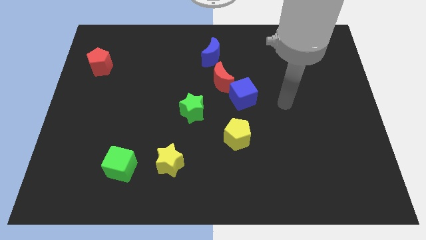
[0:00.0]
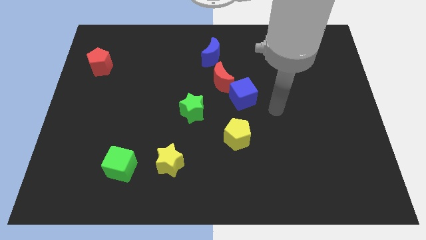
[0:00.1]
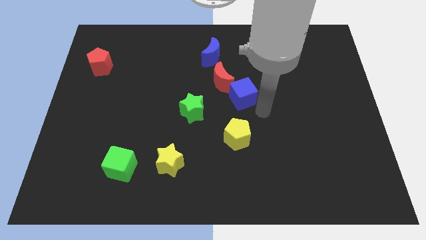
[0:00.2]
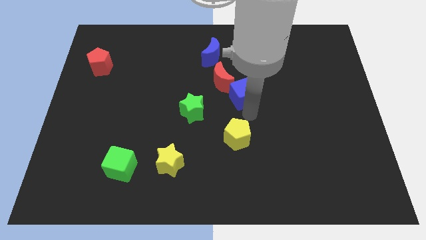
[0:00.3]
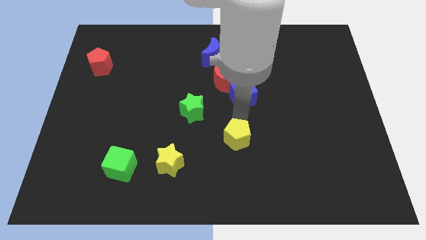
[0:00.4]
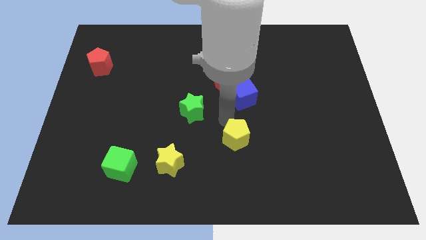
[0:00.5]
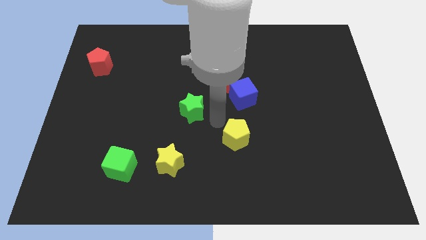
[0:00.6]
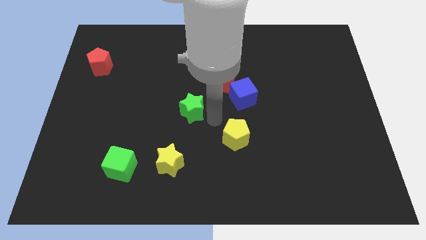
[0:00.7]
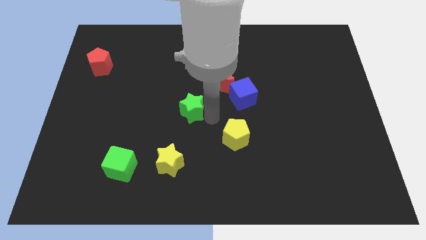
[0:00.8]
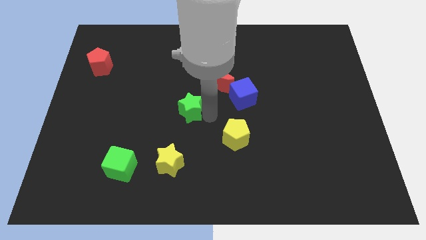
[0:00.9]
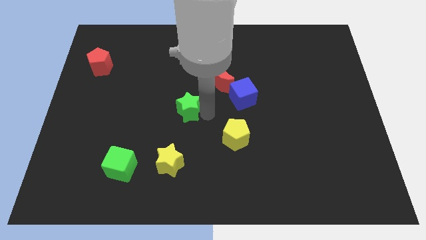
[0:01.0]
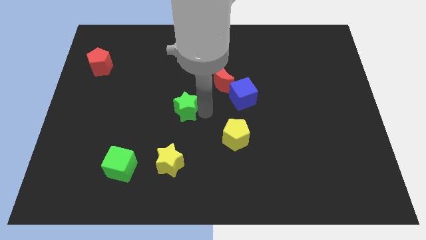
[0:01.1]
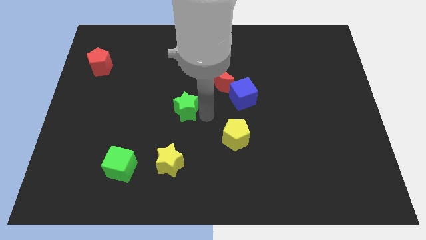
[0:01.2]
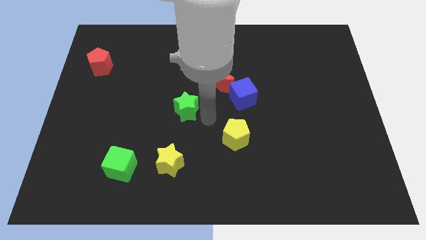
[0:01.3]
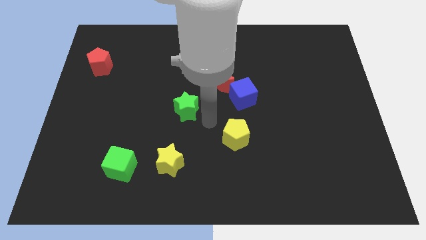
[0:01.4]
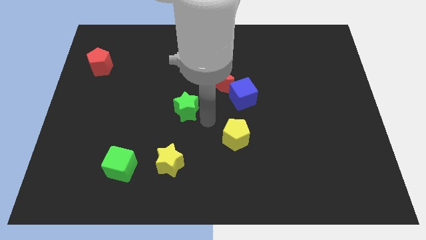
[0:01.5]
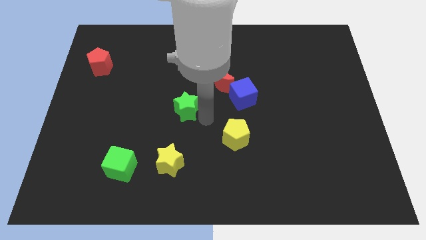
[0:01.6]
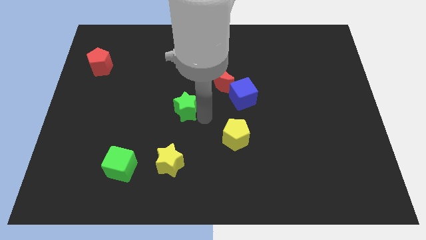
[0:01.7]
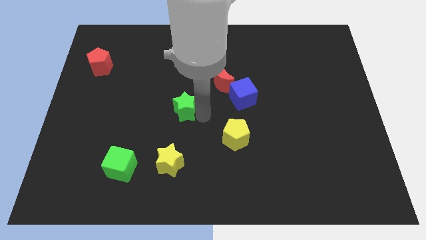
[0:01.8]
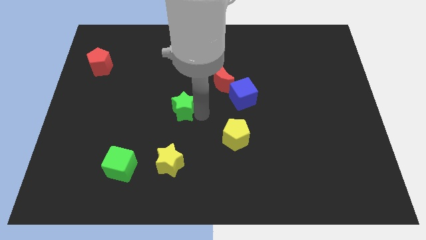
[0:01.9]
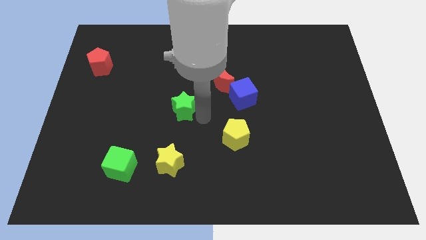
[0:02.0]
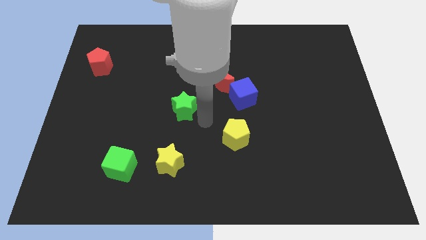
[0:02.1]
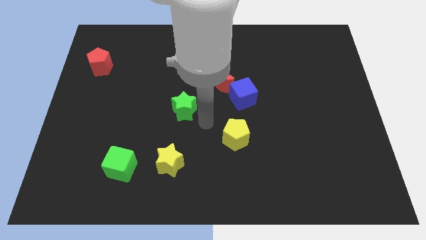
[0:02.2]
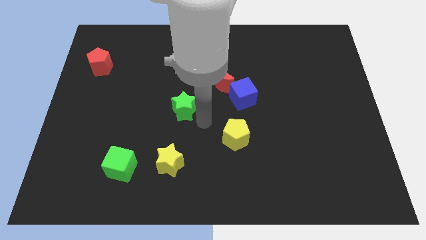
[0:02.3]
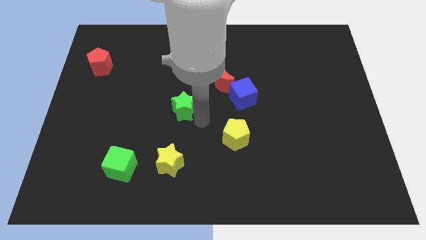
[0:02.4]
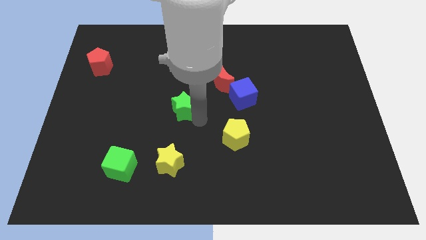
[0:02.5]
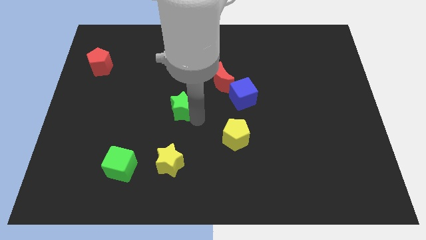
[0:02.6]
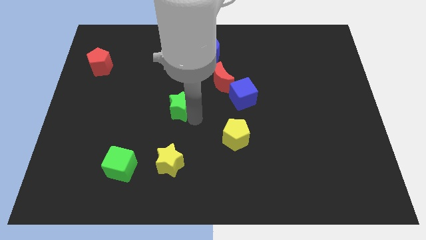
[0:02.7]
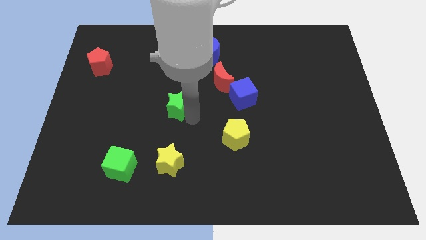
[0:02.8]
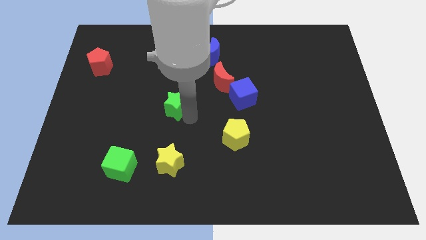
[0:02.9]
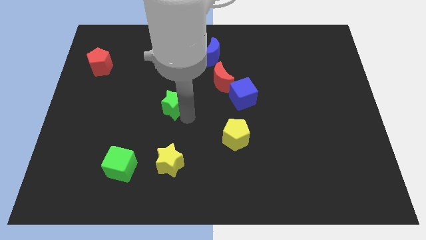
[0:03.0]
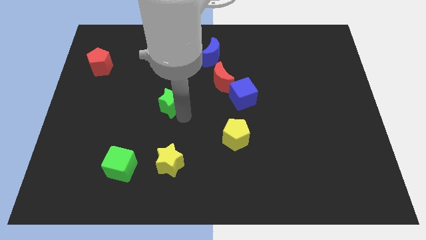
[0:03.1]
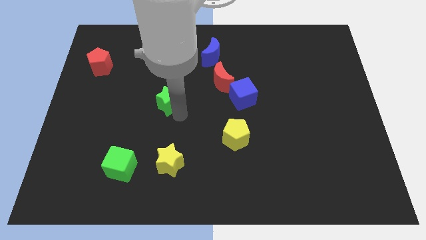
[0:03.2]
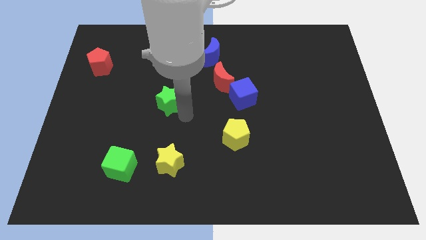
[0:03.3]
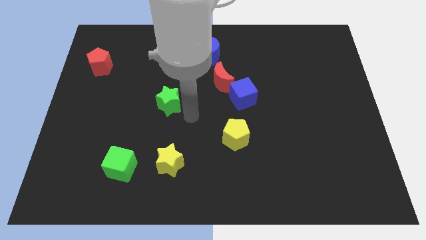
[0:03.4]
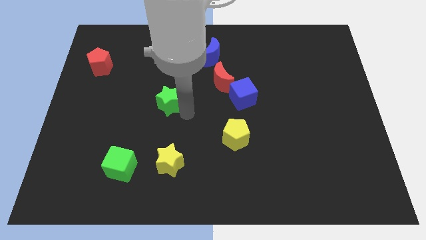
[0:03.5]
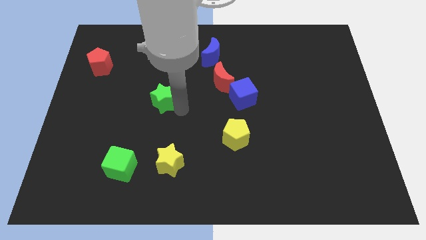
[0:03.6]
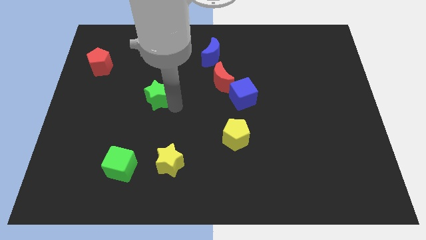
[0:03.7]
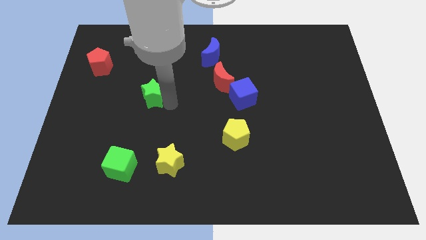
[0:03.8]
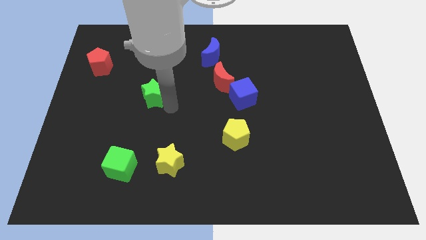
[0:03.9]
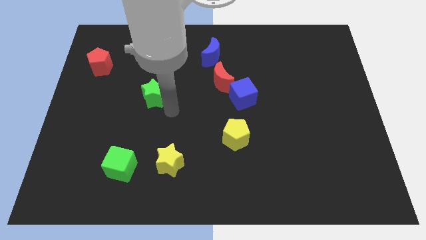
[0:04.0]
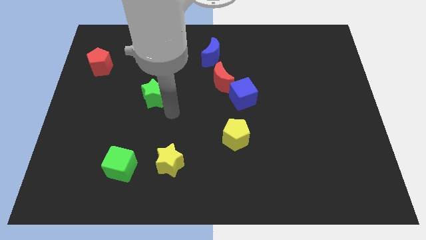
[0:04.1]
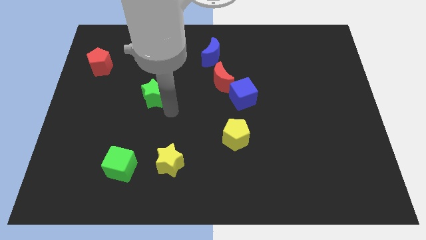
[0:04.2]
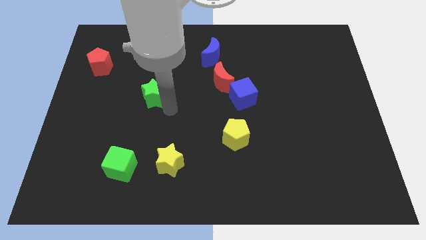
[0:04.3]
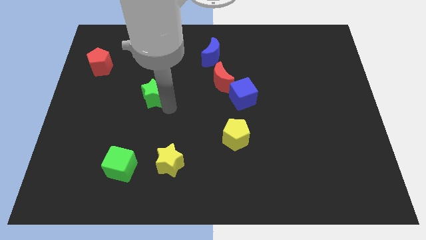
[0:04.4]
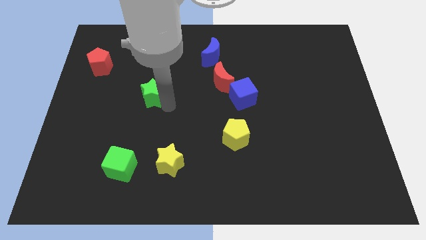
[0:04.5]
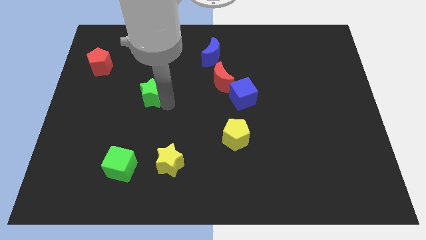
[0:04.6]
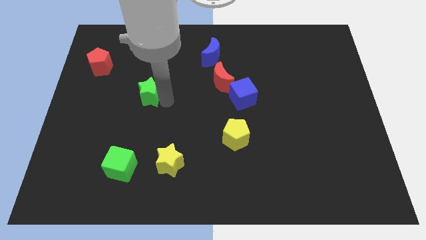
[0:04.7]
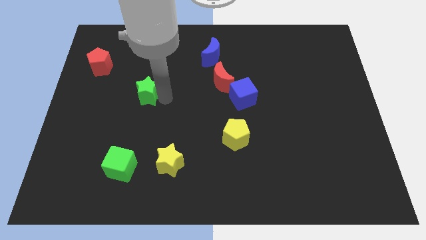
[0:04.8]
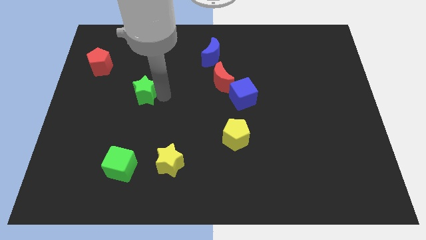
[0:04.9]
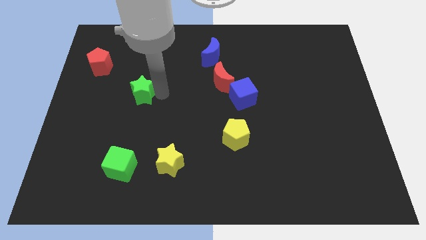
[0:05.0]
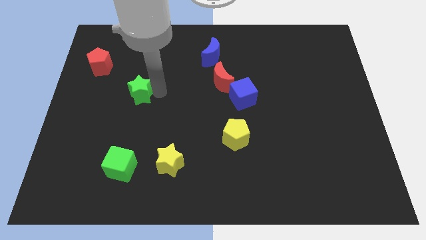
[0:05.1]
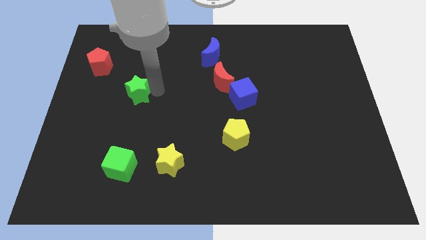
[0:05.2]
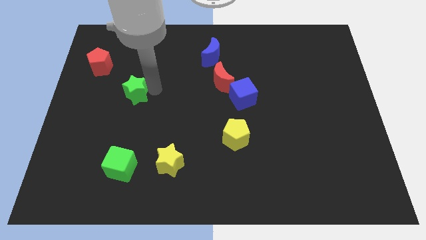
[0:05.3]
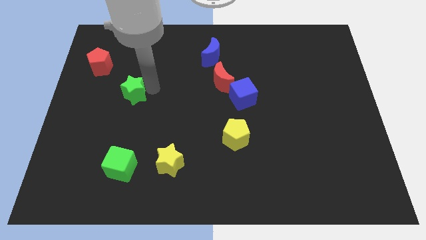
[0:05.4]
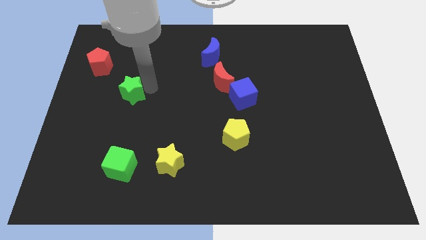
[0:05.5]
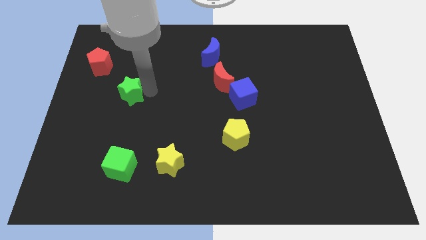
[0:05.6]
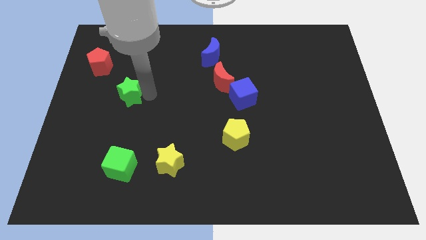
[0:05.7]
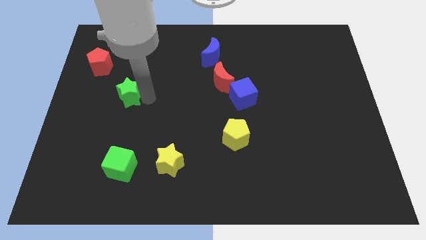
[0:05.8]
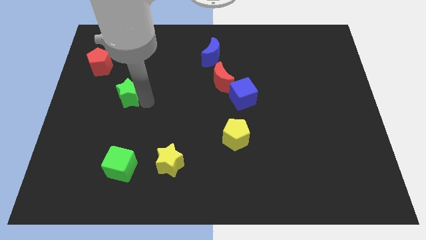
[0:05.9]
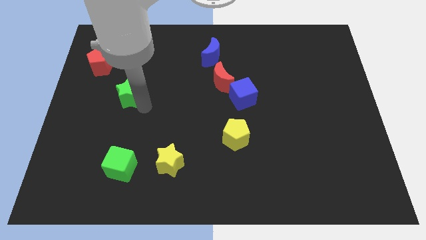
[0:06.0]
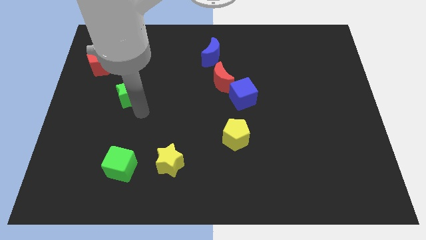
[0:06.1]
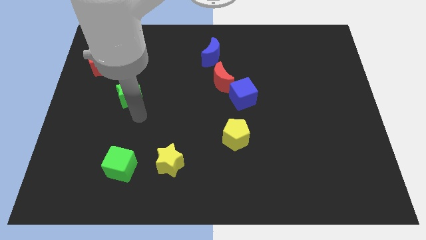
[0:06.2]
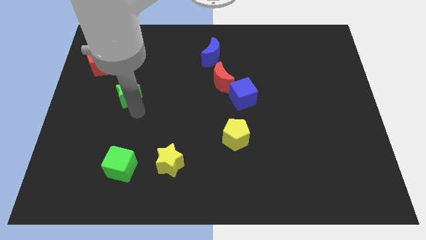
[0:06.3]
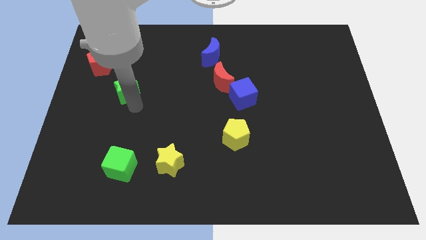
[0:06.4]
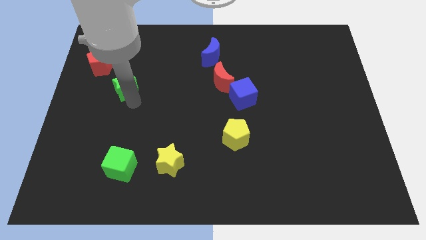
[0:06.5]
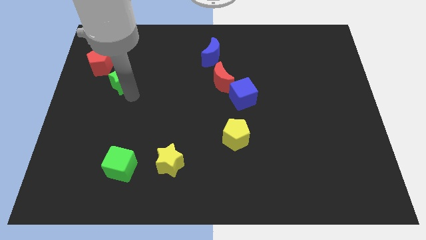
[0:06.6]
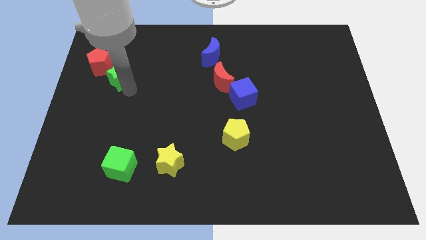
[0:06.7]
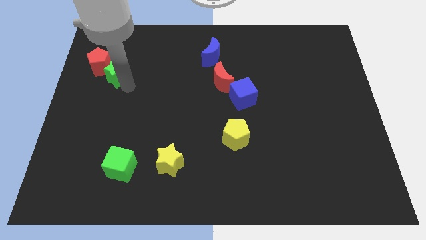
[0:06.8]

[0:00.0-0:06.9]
put the green star next to the red pentagon

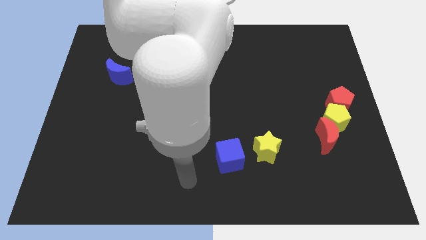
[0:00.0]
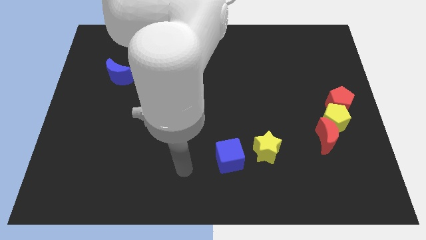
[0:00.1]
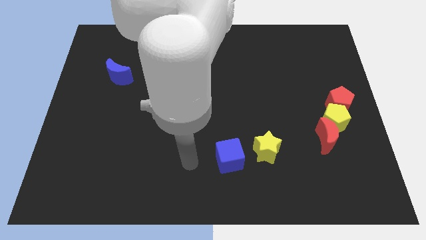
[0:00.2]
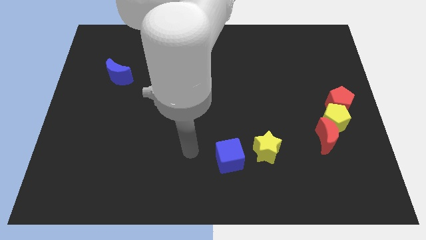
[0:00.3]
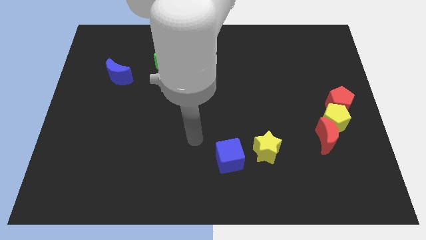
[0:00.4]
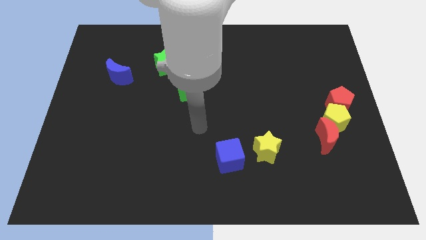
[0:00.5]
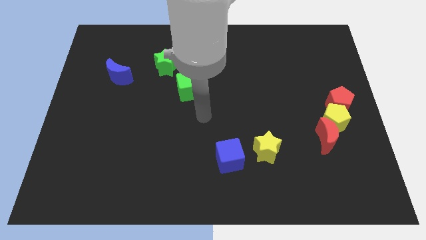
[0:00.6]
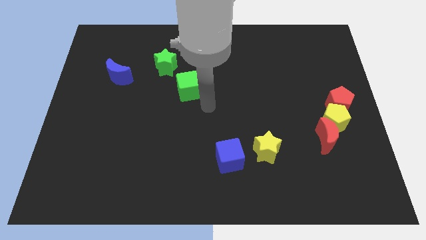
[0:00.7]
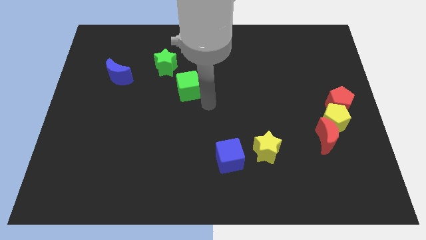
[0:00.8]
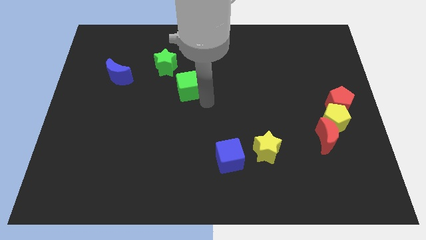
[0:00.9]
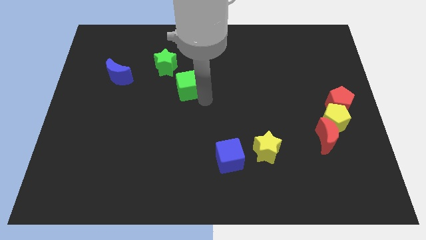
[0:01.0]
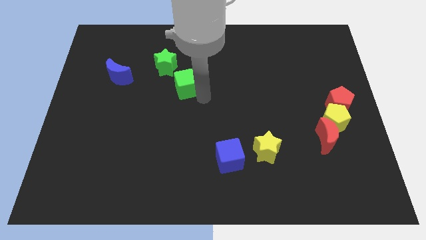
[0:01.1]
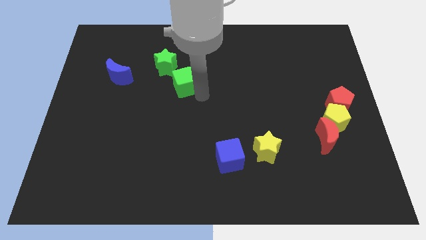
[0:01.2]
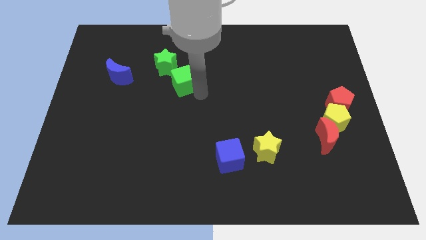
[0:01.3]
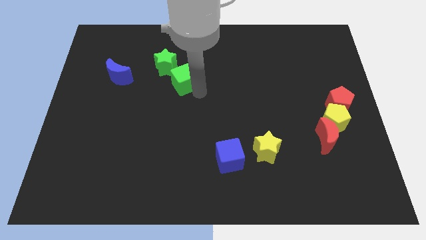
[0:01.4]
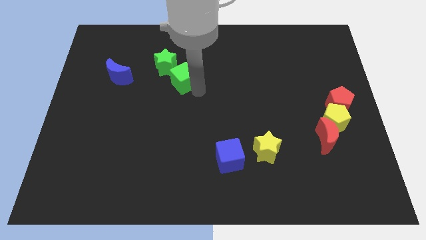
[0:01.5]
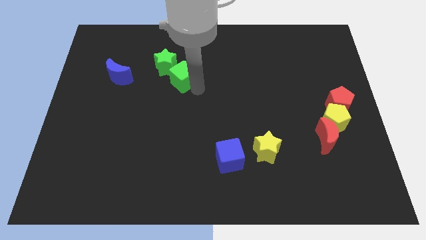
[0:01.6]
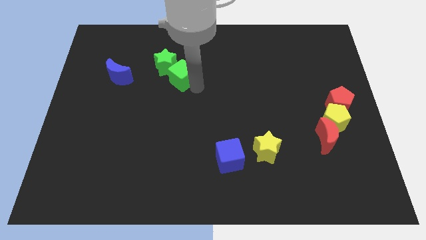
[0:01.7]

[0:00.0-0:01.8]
move the green cube towards the green star
